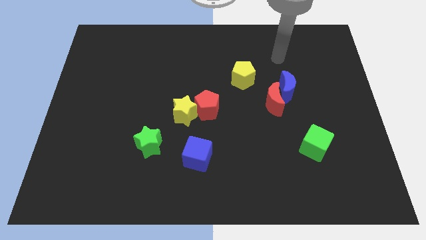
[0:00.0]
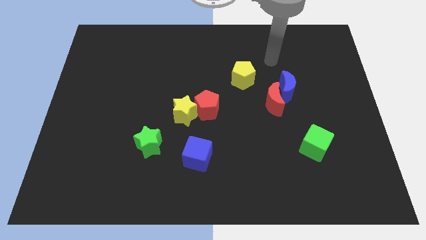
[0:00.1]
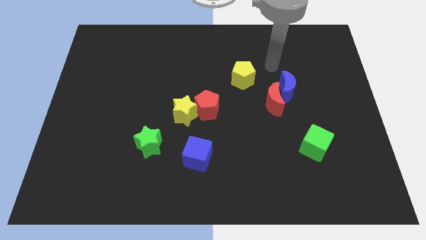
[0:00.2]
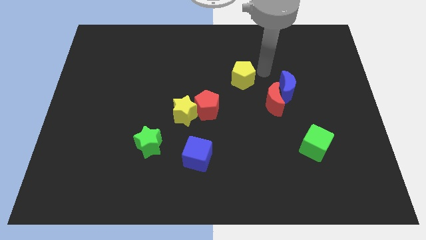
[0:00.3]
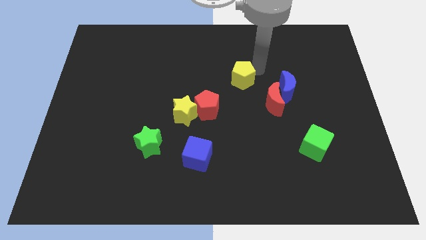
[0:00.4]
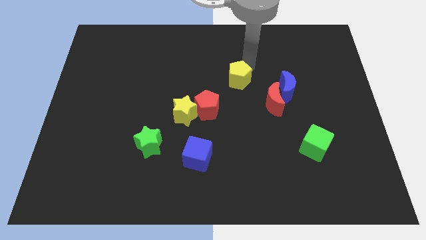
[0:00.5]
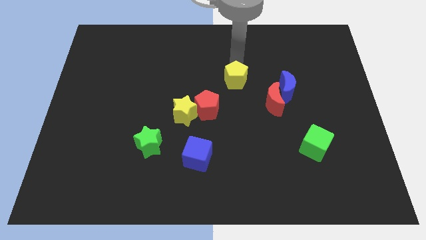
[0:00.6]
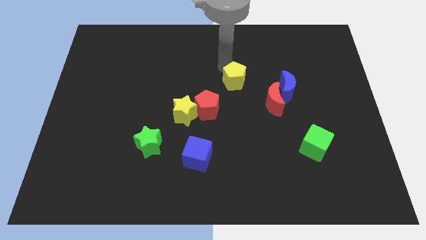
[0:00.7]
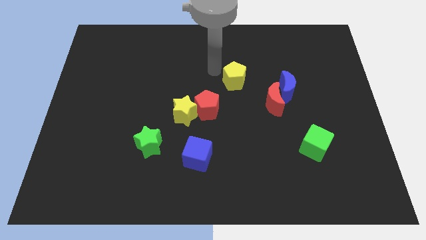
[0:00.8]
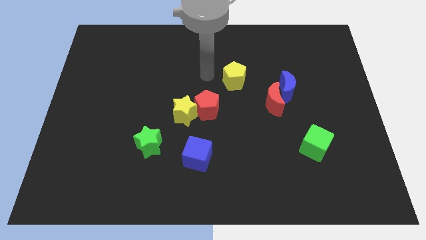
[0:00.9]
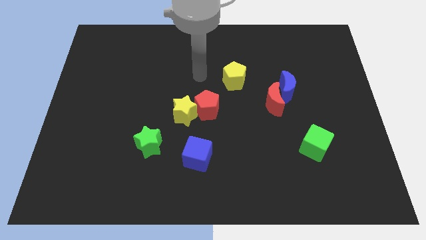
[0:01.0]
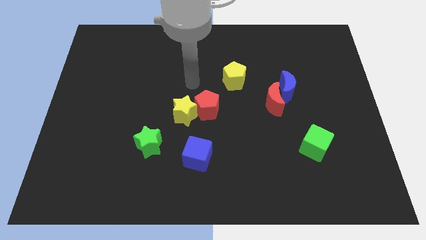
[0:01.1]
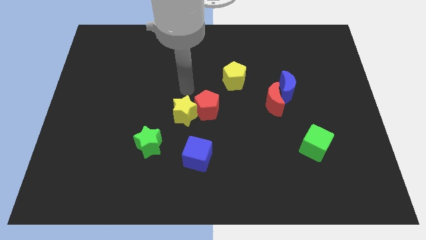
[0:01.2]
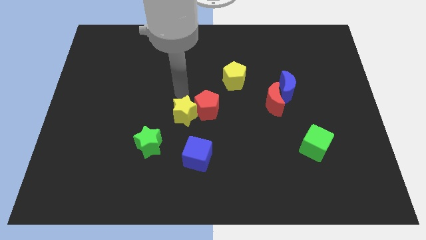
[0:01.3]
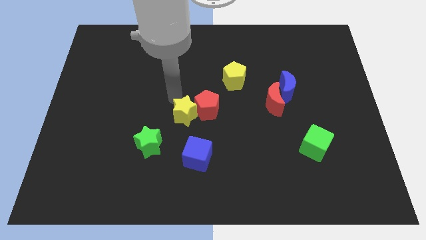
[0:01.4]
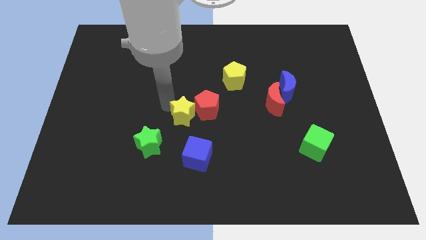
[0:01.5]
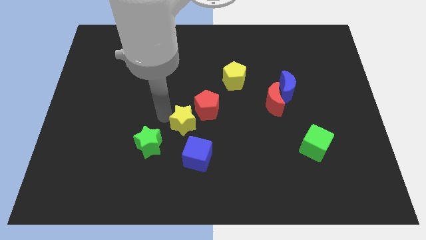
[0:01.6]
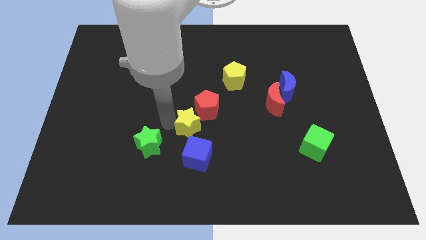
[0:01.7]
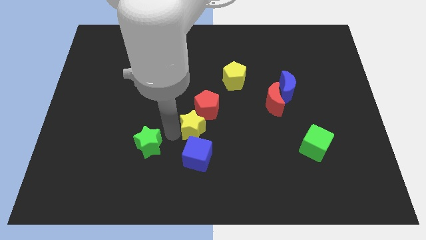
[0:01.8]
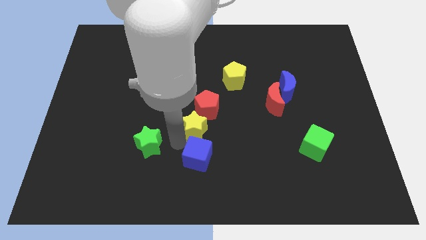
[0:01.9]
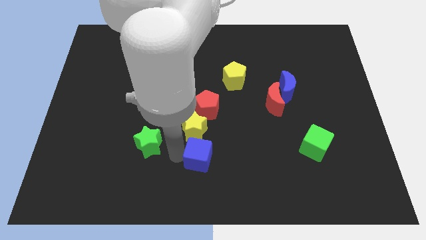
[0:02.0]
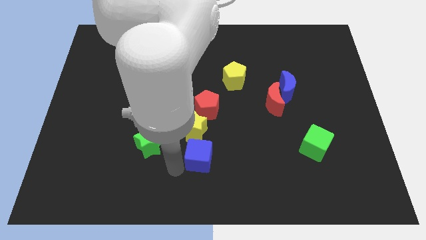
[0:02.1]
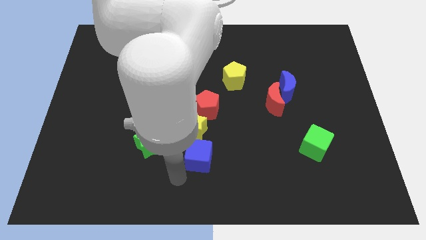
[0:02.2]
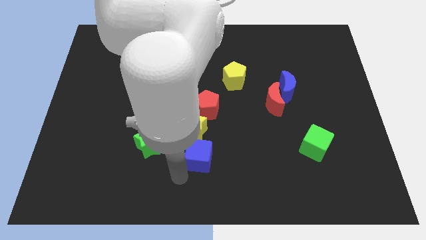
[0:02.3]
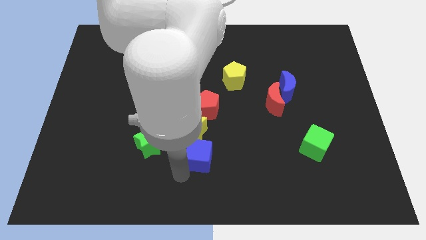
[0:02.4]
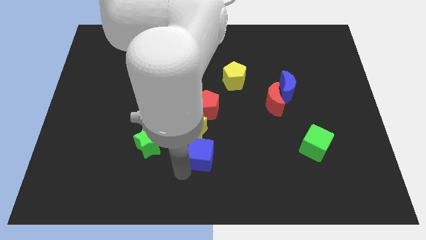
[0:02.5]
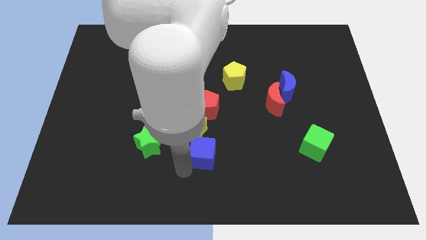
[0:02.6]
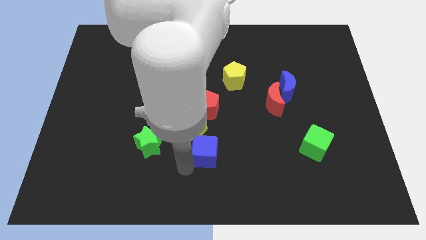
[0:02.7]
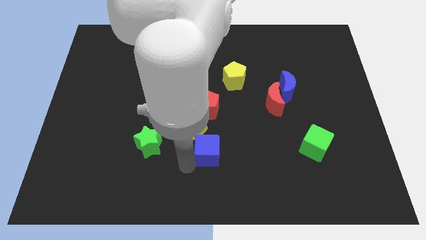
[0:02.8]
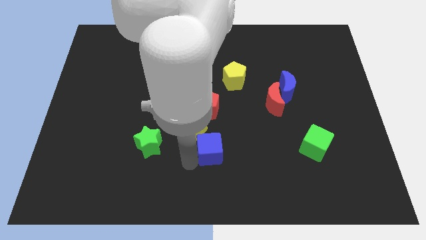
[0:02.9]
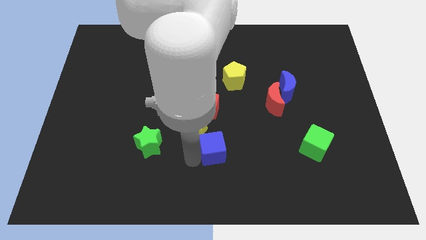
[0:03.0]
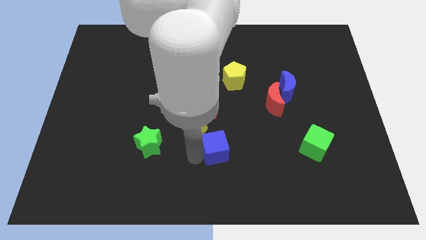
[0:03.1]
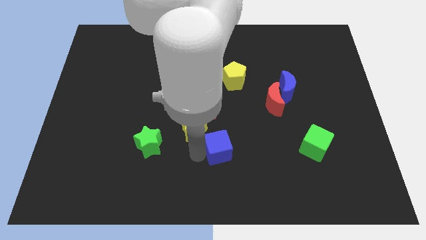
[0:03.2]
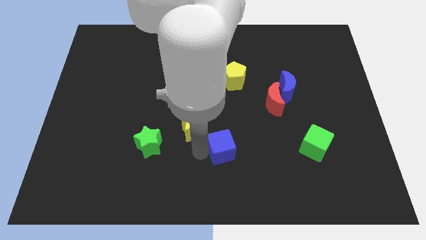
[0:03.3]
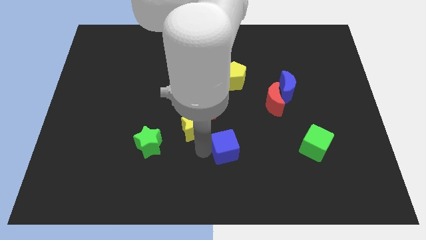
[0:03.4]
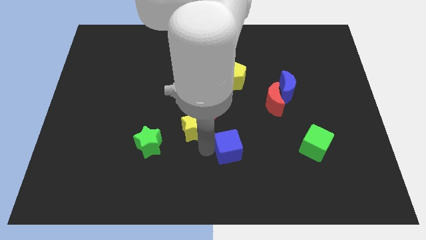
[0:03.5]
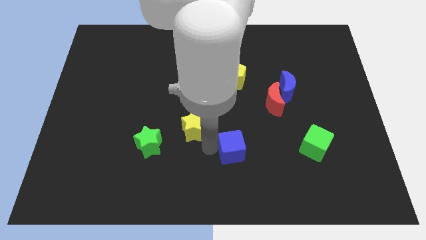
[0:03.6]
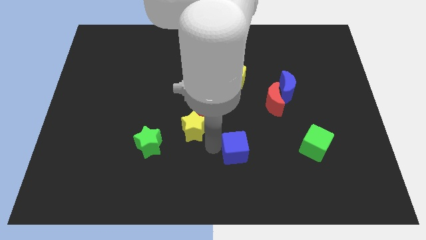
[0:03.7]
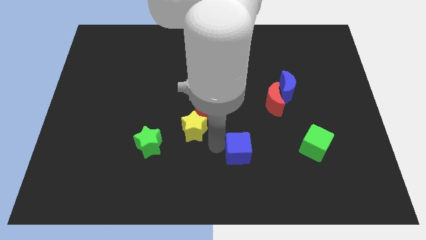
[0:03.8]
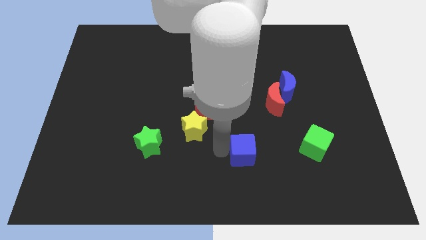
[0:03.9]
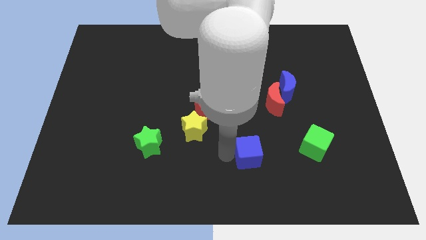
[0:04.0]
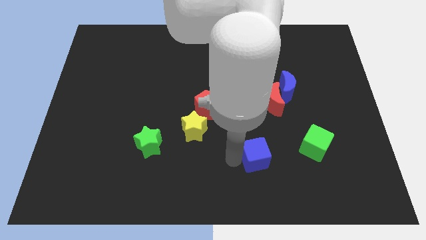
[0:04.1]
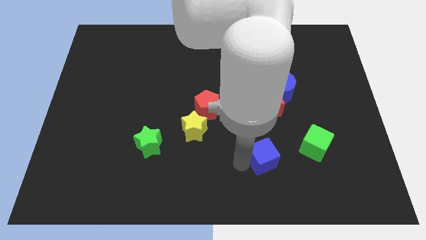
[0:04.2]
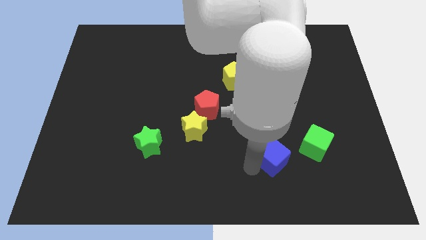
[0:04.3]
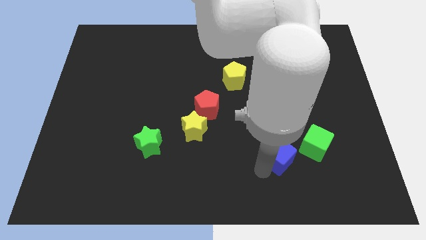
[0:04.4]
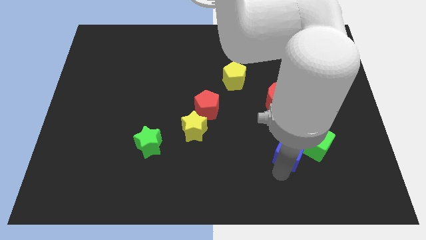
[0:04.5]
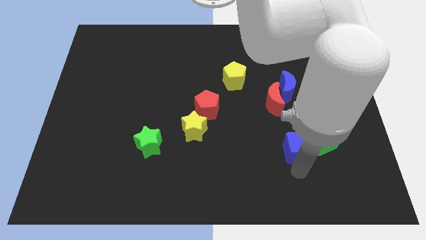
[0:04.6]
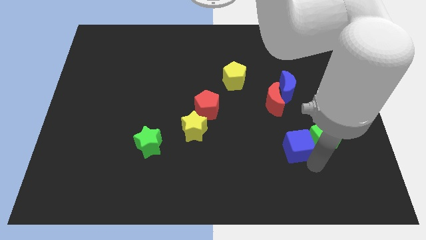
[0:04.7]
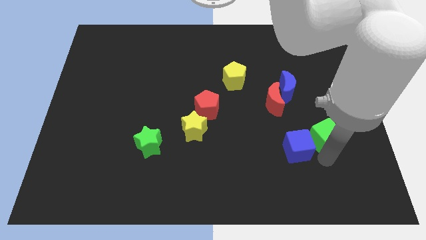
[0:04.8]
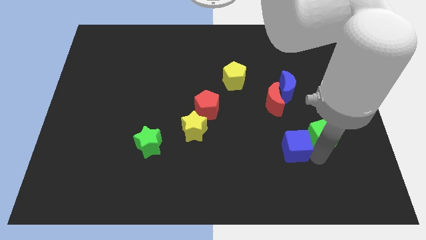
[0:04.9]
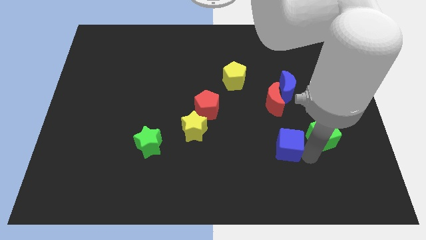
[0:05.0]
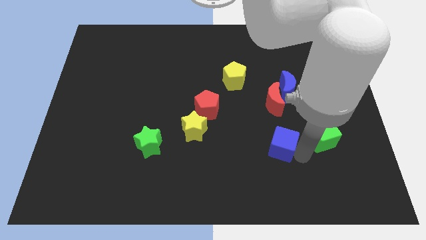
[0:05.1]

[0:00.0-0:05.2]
push the blue cube up and right slightly

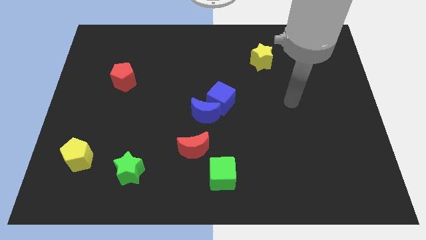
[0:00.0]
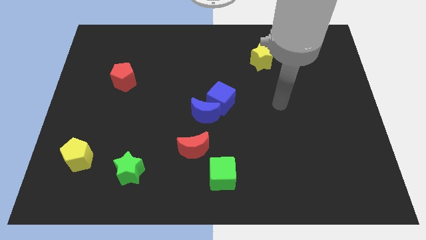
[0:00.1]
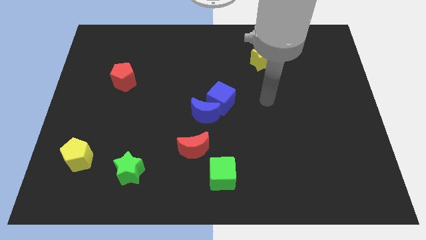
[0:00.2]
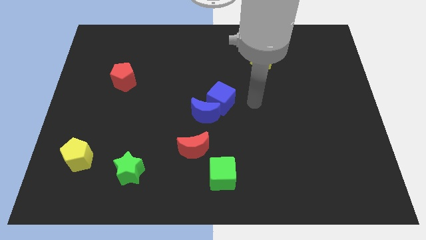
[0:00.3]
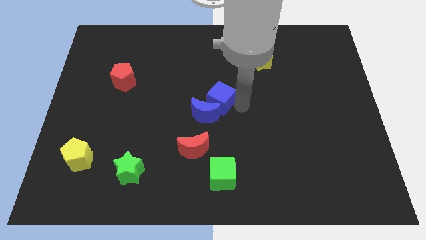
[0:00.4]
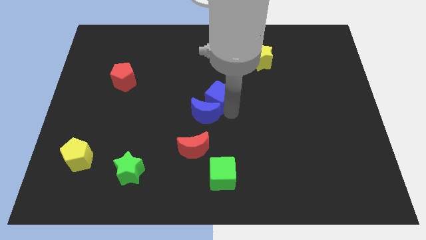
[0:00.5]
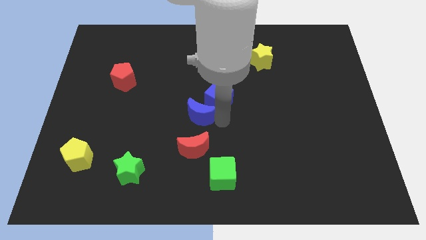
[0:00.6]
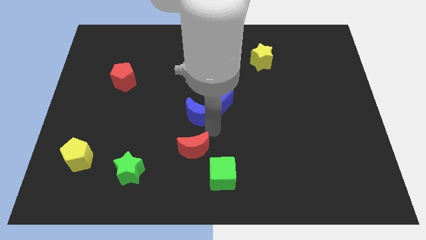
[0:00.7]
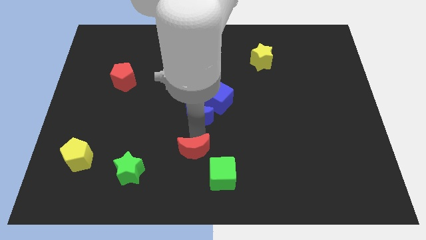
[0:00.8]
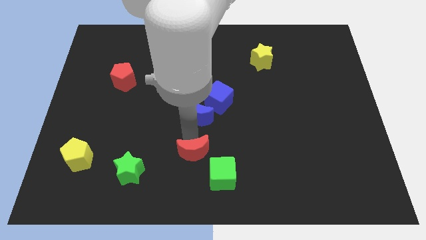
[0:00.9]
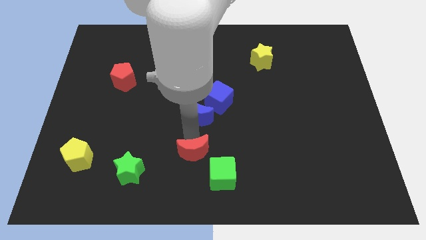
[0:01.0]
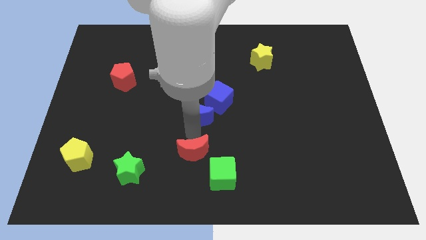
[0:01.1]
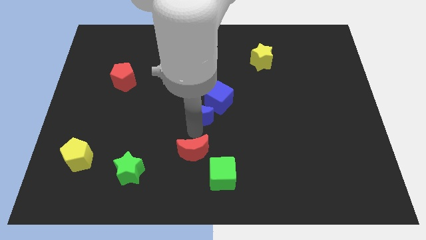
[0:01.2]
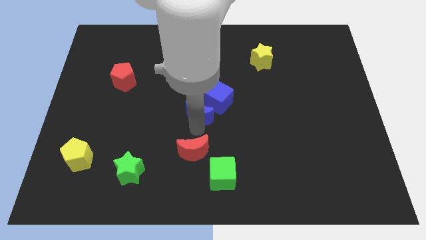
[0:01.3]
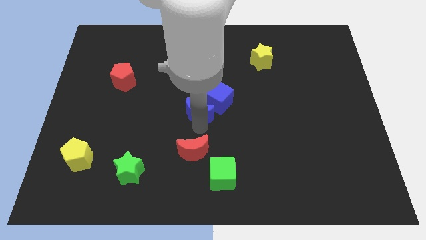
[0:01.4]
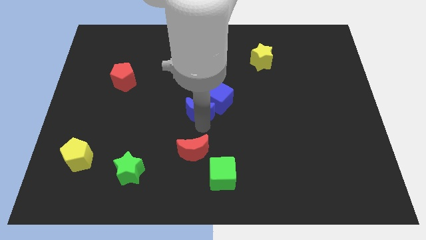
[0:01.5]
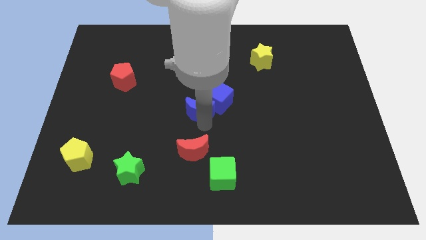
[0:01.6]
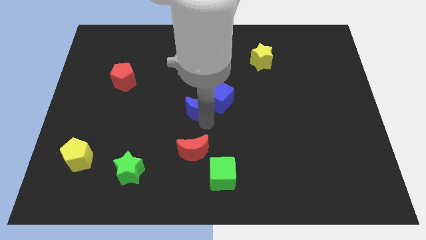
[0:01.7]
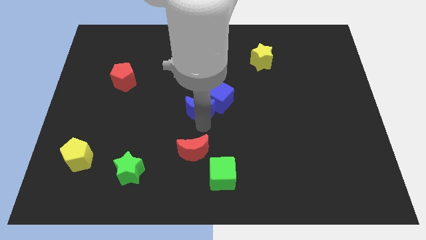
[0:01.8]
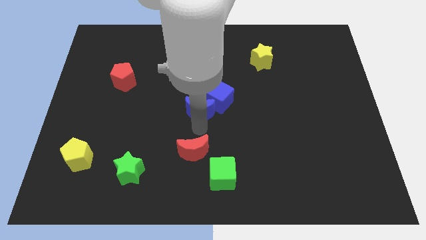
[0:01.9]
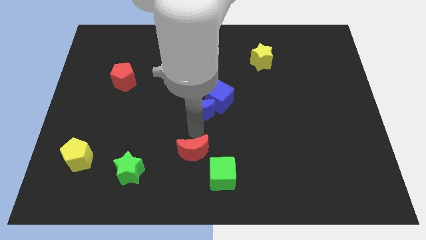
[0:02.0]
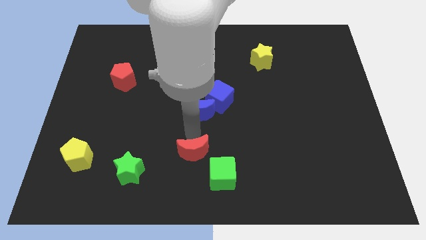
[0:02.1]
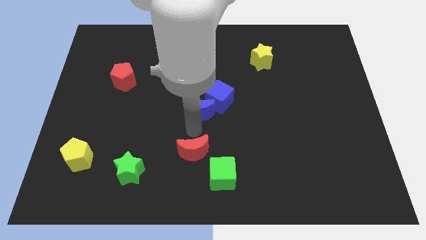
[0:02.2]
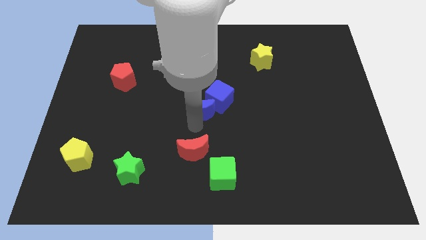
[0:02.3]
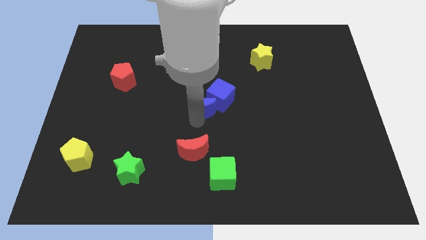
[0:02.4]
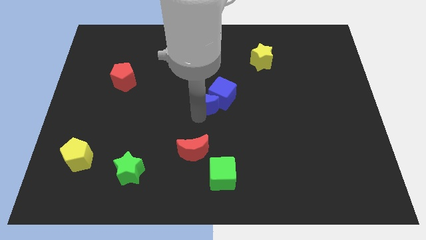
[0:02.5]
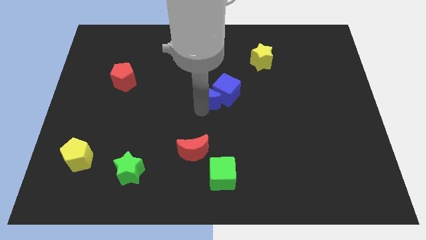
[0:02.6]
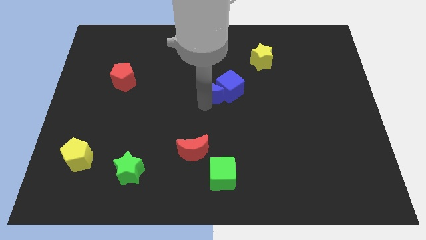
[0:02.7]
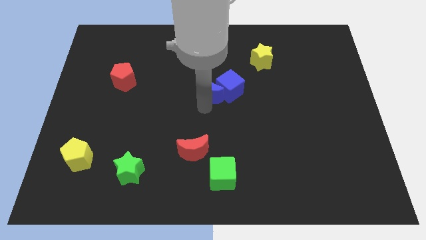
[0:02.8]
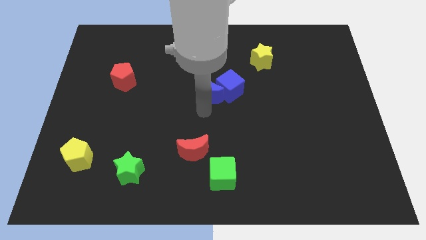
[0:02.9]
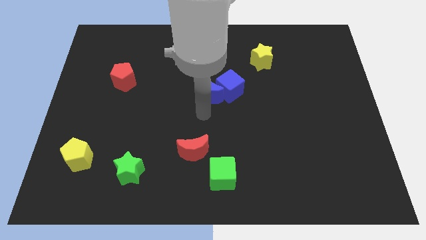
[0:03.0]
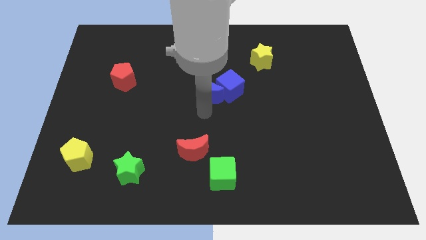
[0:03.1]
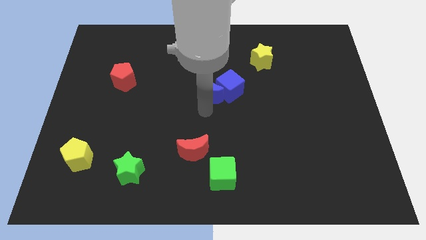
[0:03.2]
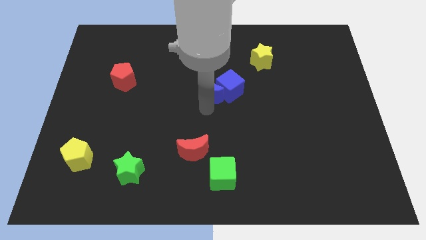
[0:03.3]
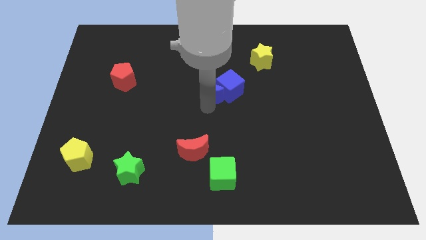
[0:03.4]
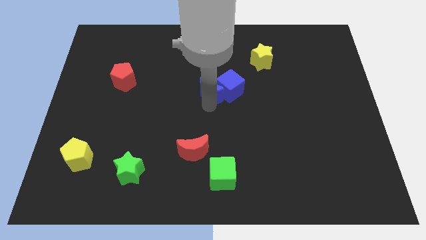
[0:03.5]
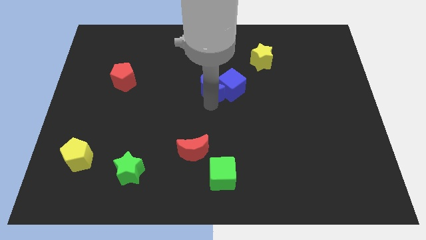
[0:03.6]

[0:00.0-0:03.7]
push the blue moon slightly up
